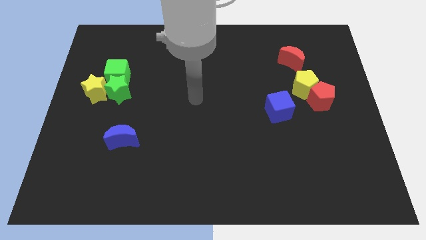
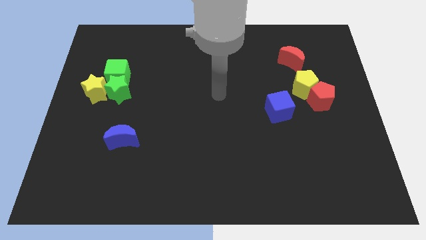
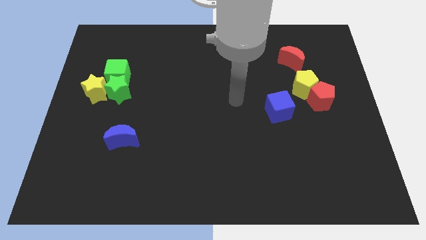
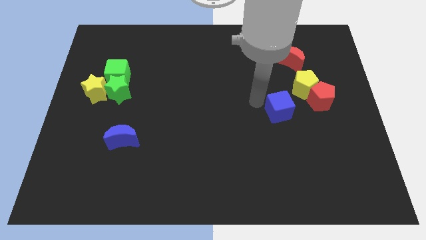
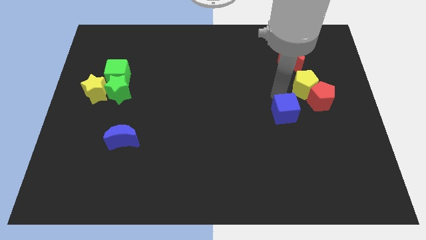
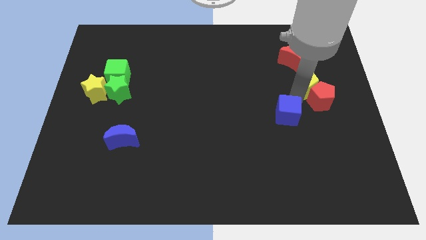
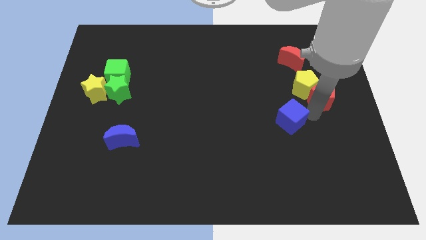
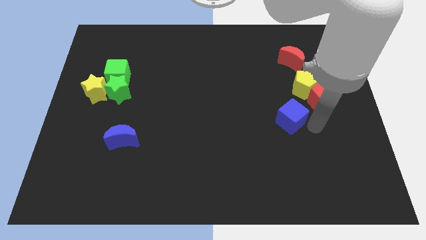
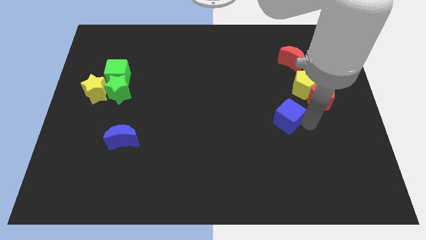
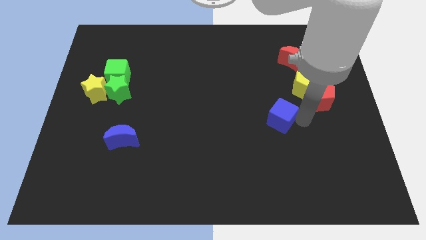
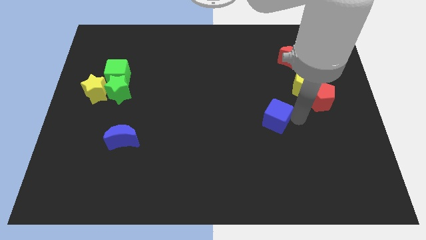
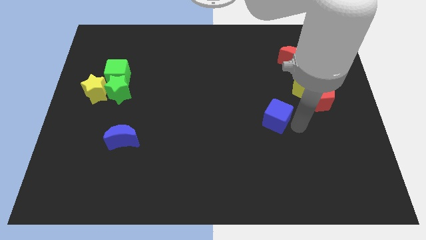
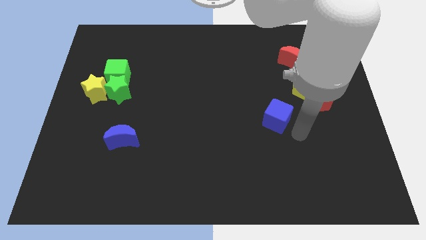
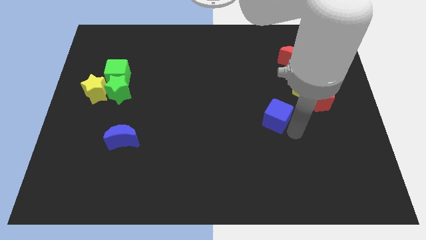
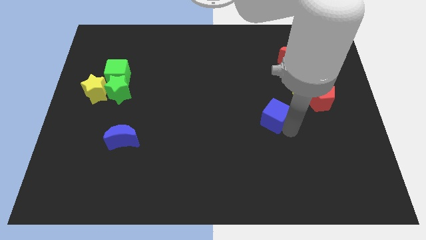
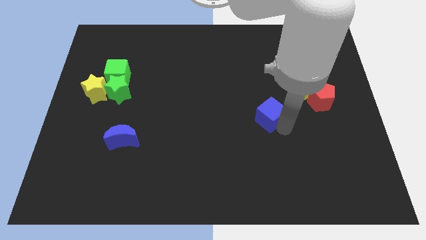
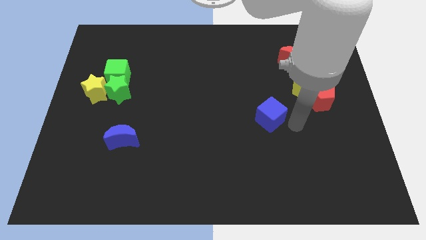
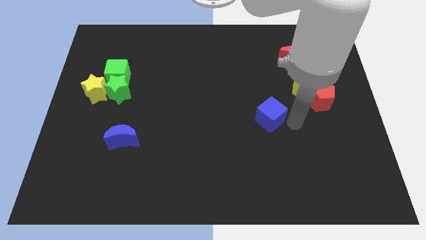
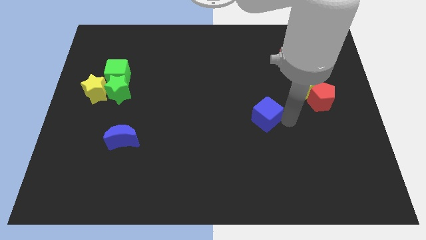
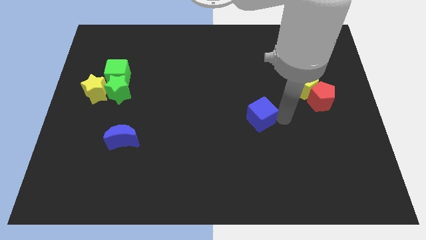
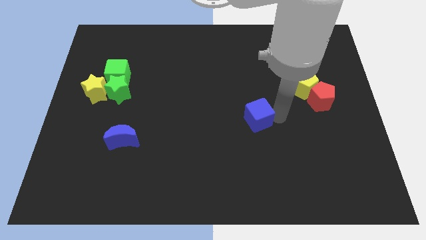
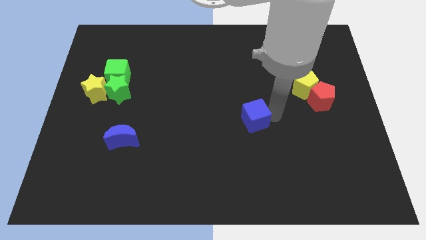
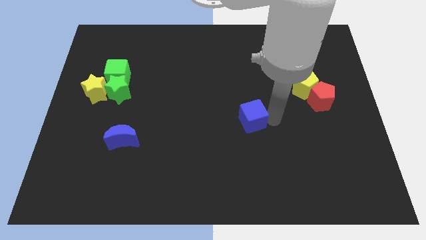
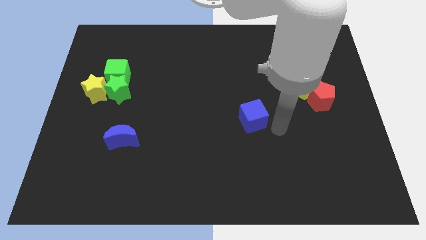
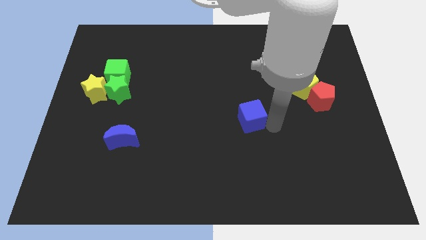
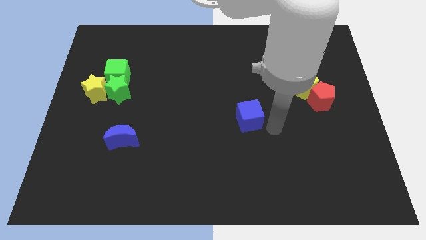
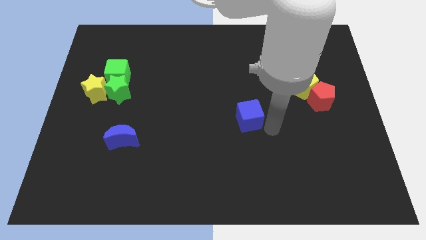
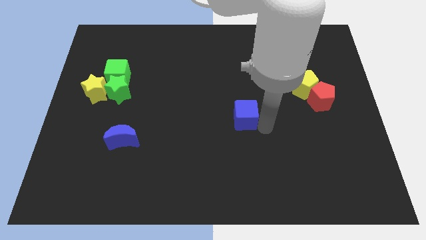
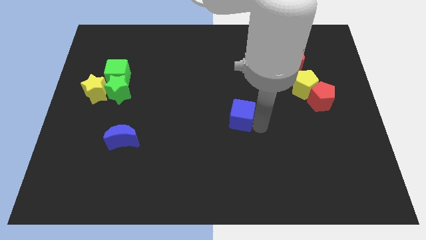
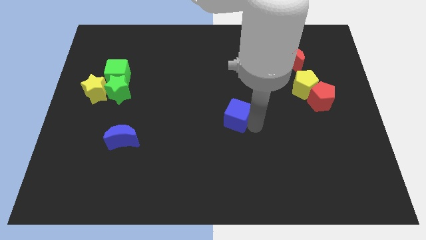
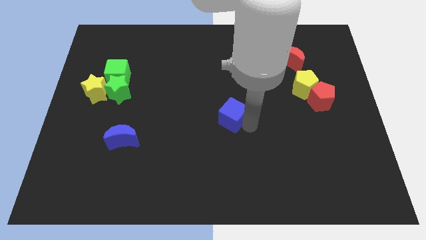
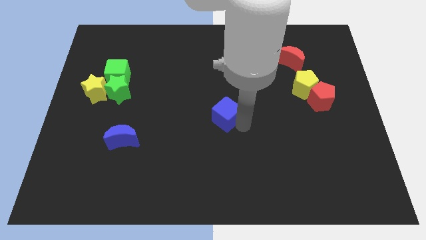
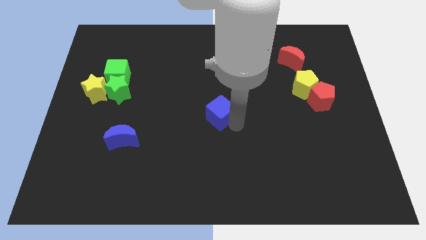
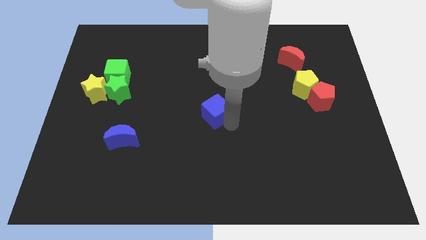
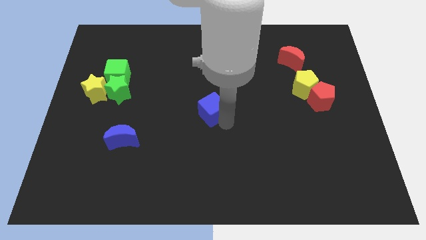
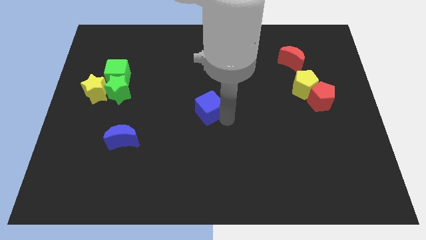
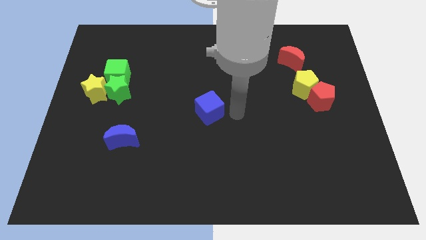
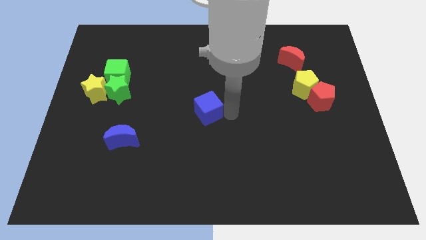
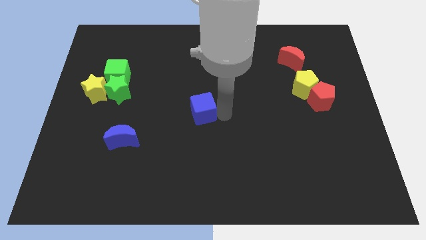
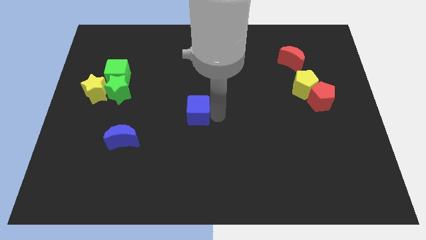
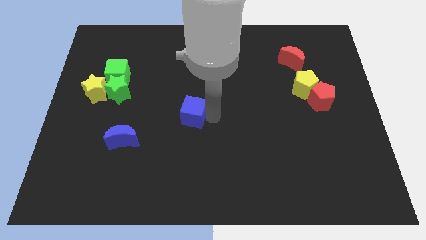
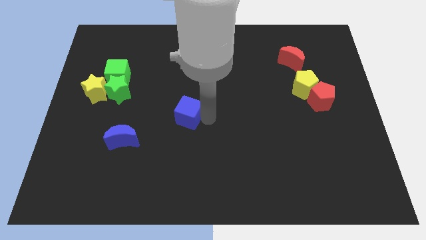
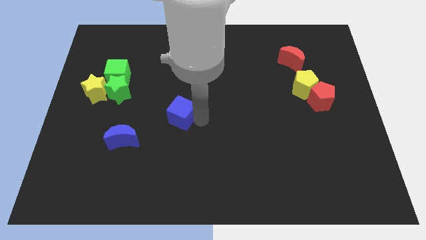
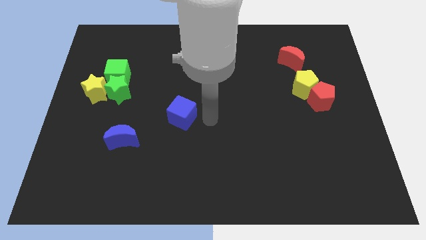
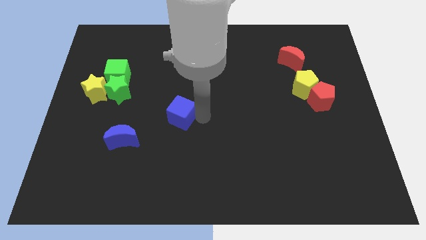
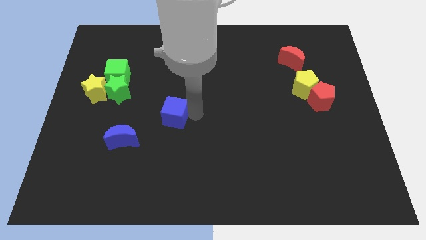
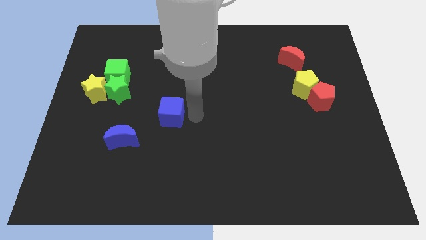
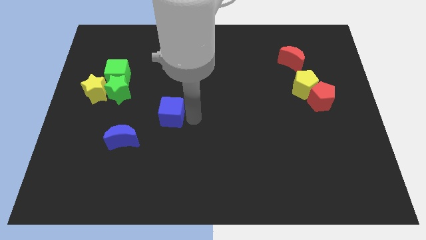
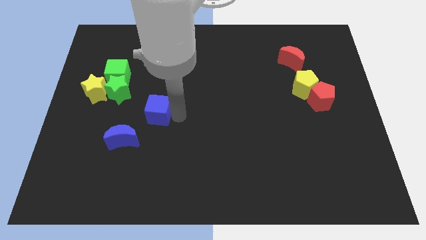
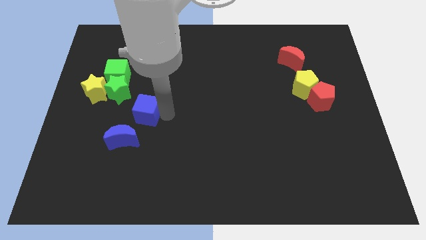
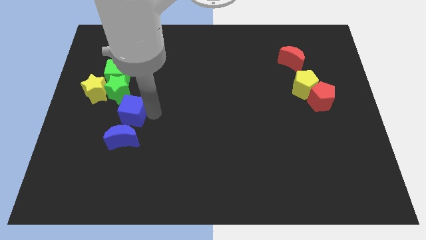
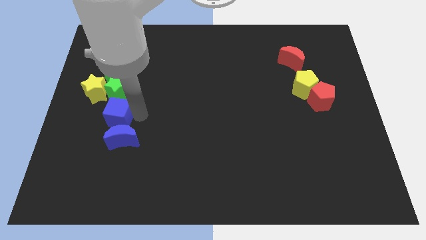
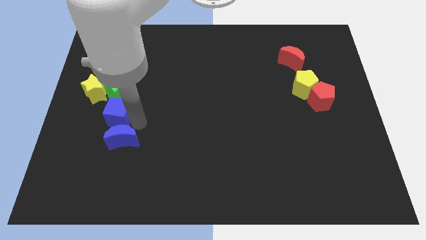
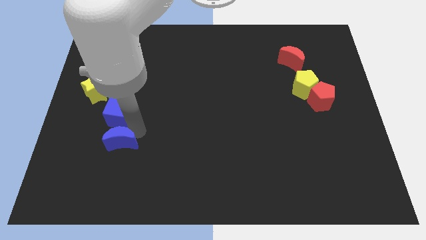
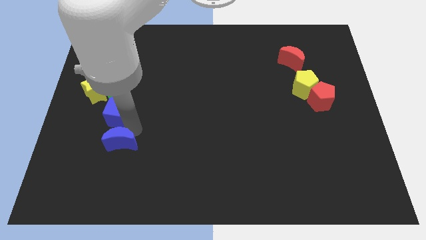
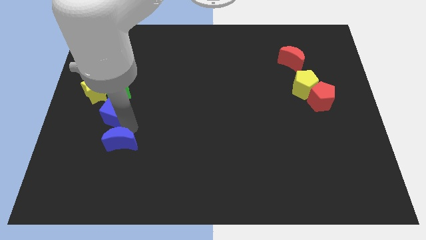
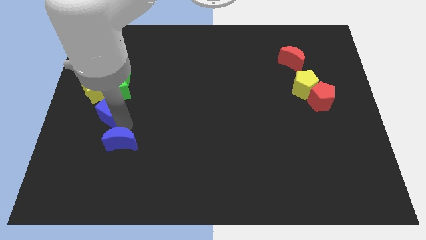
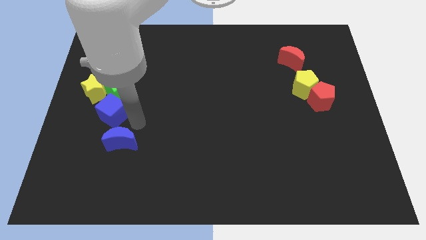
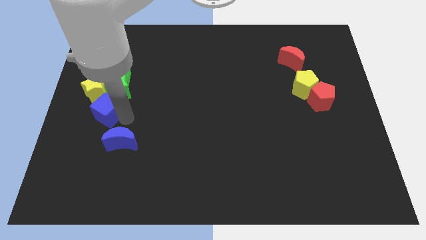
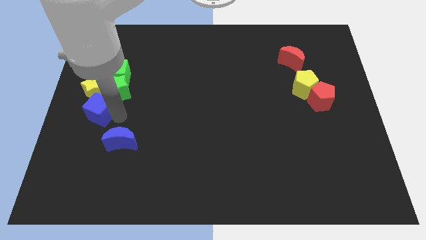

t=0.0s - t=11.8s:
move the blue cube to the left side
